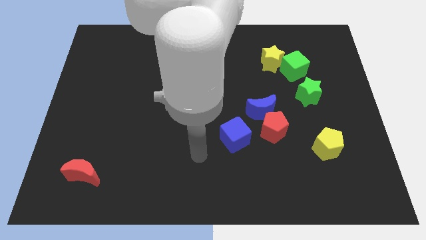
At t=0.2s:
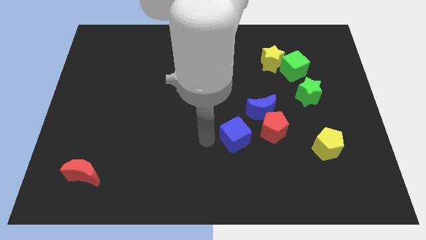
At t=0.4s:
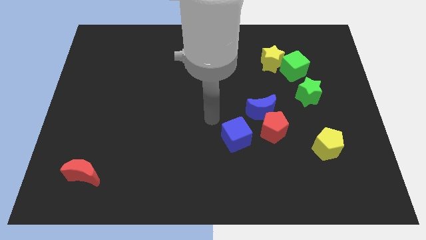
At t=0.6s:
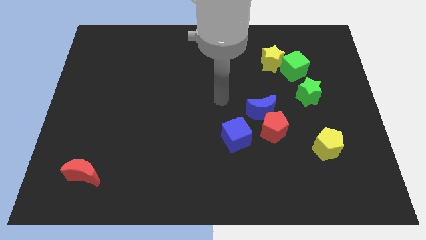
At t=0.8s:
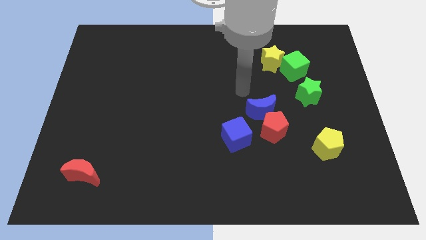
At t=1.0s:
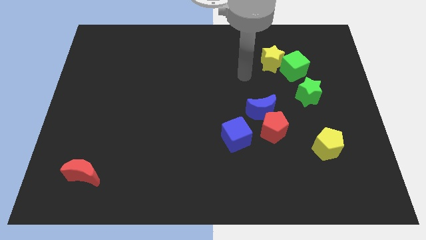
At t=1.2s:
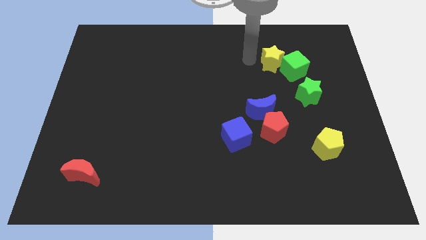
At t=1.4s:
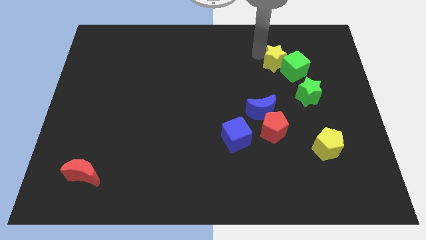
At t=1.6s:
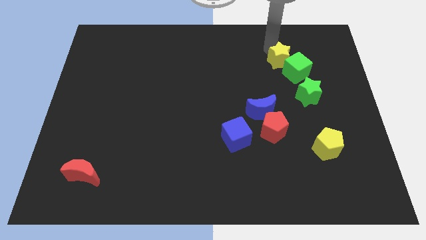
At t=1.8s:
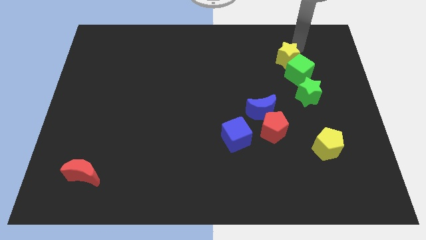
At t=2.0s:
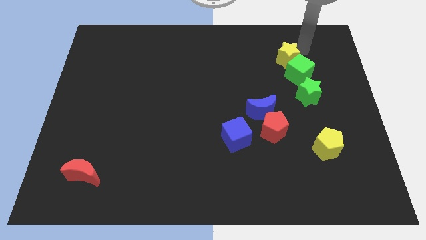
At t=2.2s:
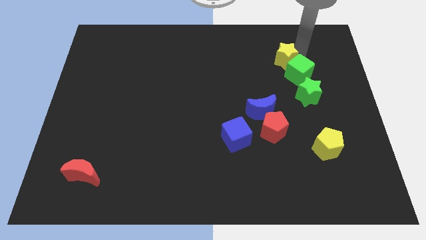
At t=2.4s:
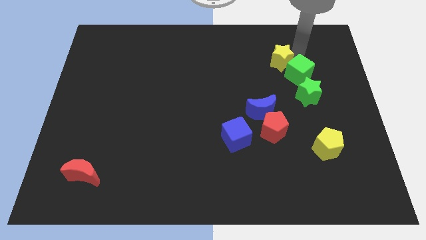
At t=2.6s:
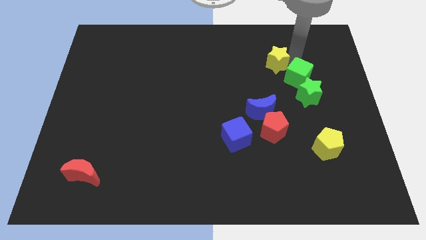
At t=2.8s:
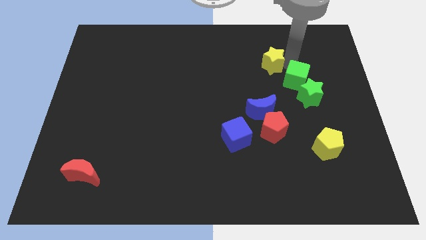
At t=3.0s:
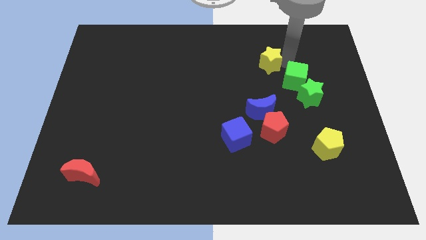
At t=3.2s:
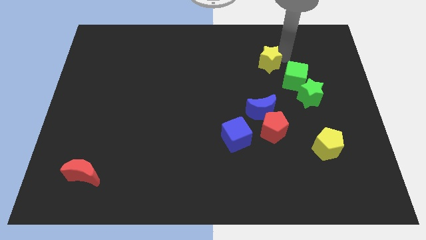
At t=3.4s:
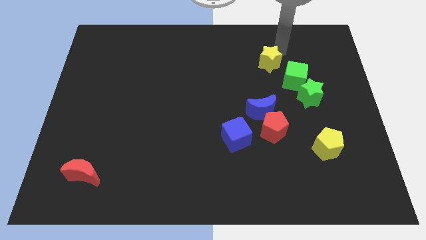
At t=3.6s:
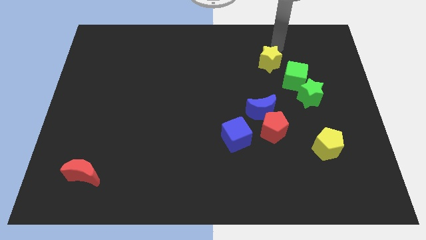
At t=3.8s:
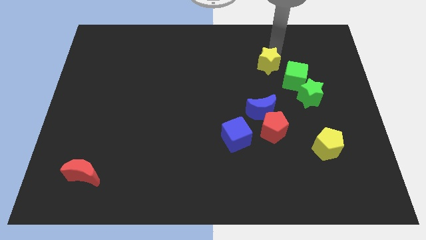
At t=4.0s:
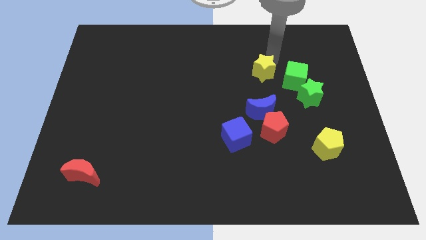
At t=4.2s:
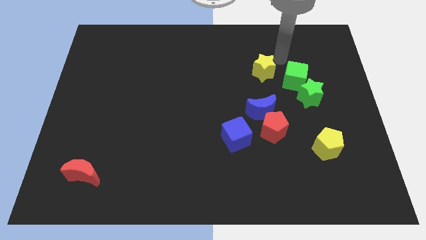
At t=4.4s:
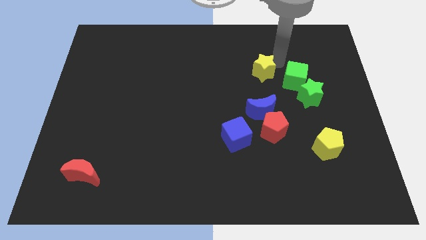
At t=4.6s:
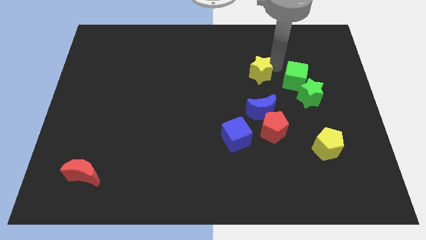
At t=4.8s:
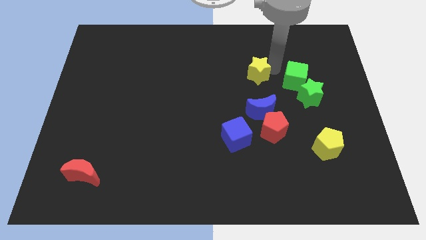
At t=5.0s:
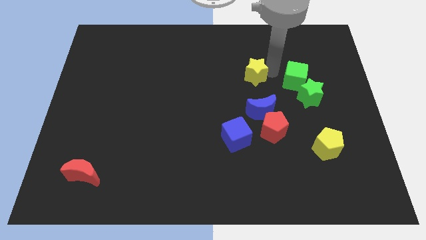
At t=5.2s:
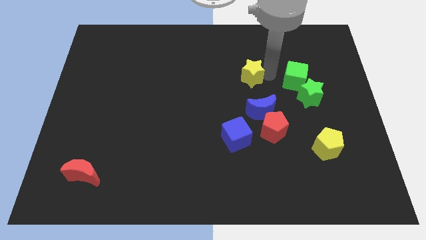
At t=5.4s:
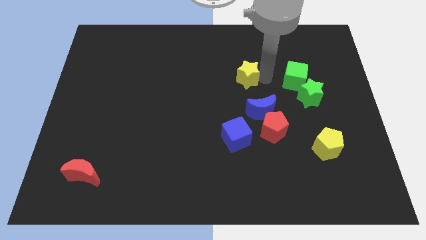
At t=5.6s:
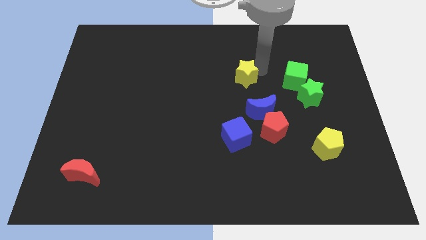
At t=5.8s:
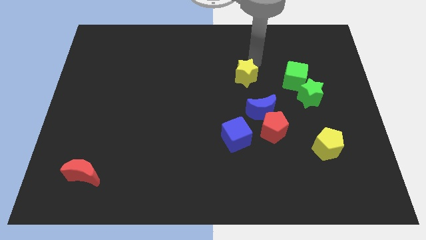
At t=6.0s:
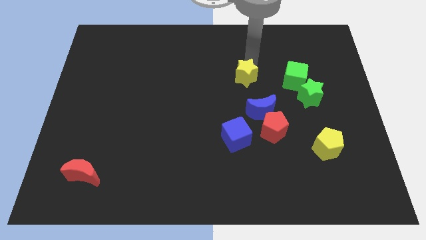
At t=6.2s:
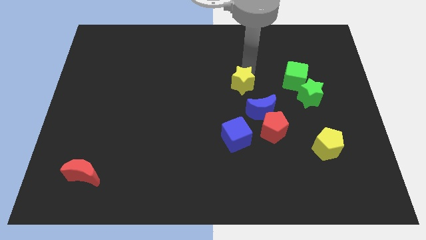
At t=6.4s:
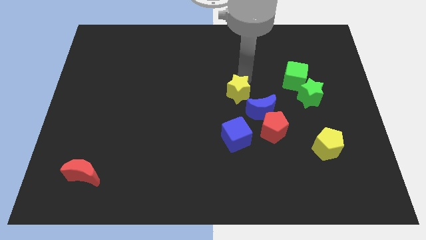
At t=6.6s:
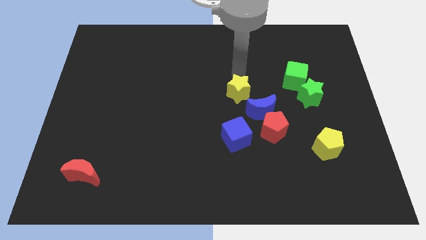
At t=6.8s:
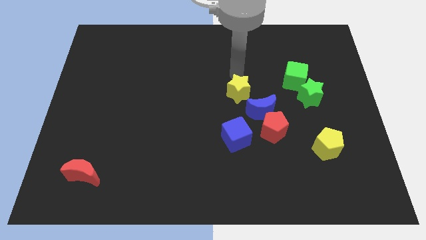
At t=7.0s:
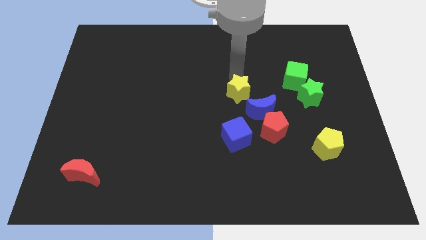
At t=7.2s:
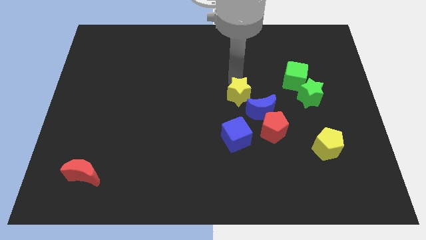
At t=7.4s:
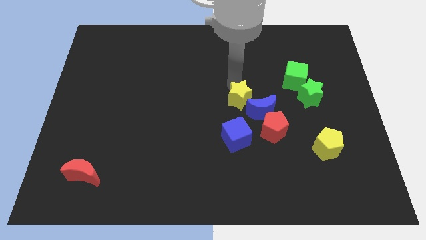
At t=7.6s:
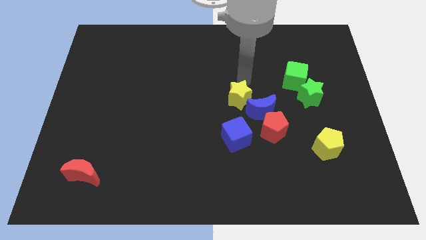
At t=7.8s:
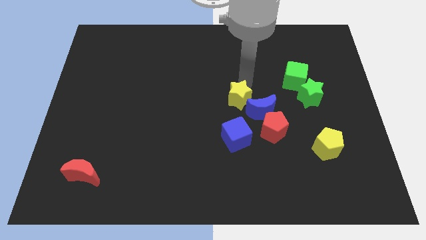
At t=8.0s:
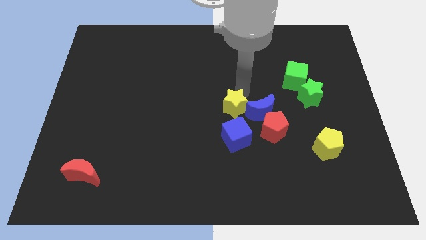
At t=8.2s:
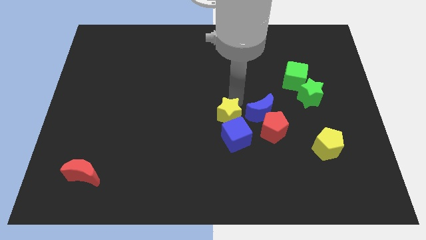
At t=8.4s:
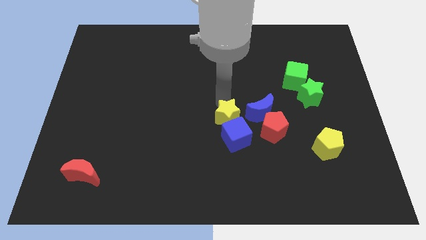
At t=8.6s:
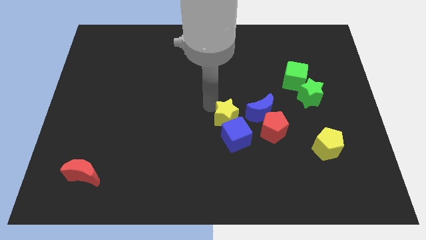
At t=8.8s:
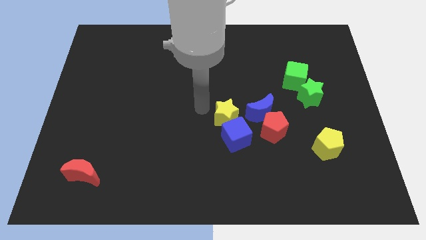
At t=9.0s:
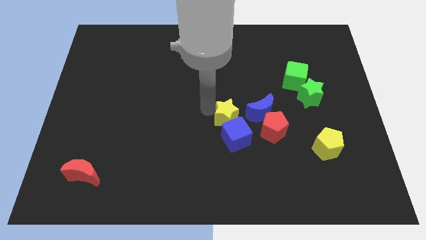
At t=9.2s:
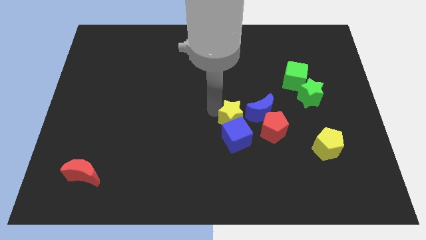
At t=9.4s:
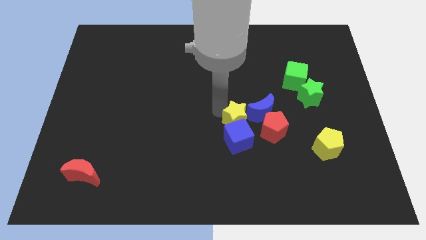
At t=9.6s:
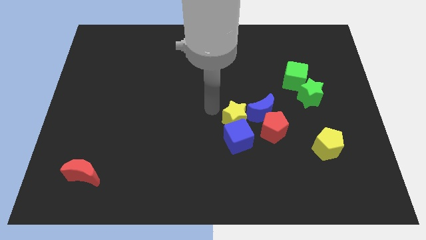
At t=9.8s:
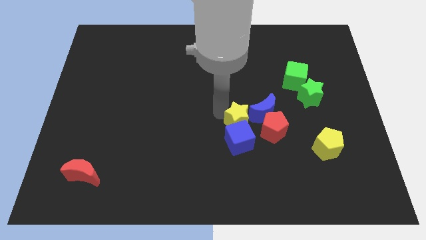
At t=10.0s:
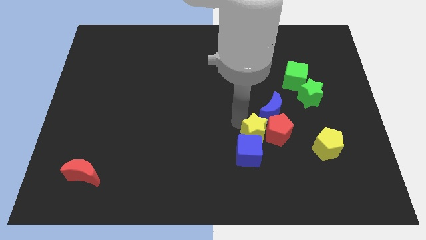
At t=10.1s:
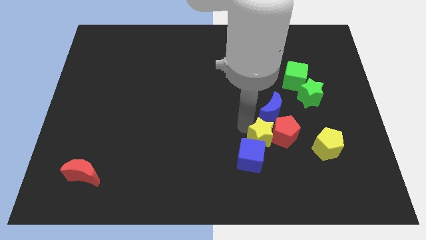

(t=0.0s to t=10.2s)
move the yellow star to the left of the yellow pentagon

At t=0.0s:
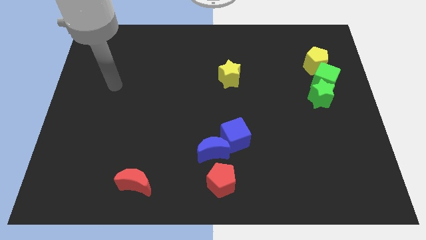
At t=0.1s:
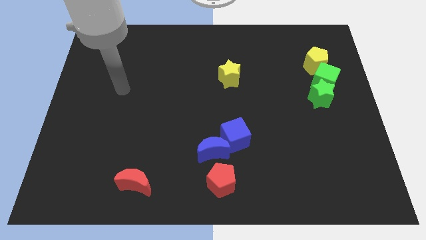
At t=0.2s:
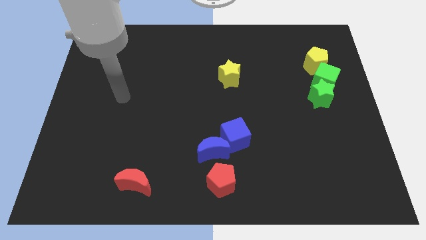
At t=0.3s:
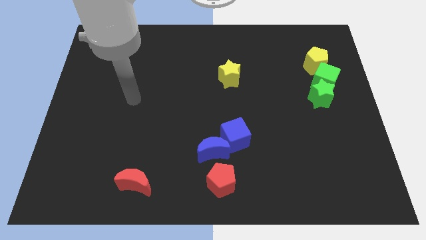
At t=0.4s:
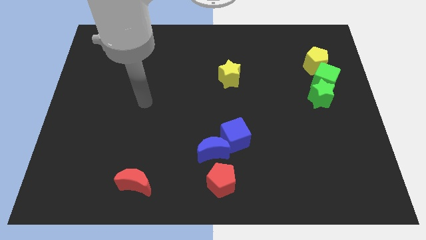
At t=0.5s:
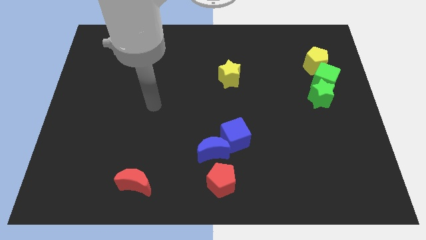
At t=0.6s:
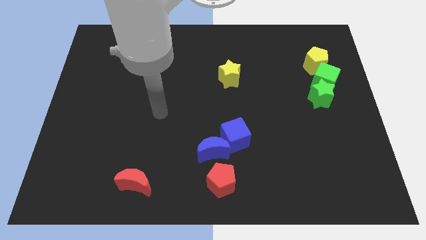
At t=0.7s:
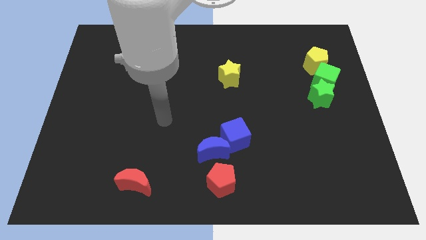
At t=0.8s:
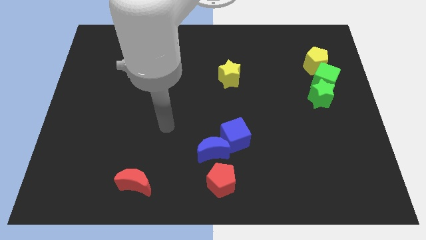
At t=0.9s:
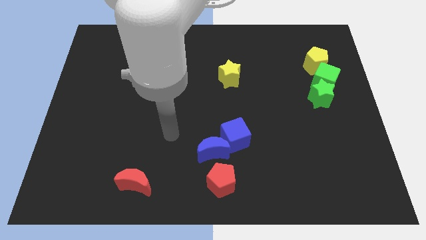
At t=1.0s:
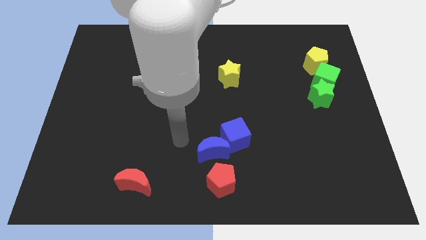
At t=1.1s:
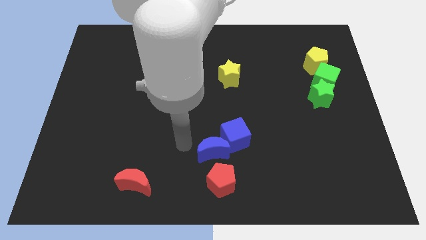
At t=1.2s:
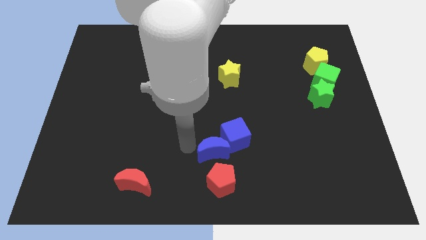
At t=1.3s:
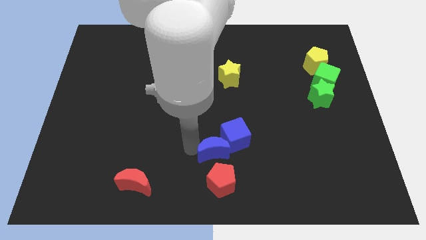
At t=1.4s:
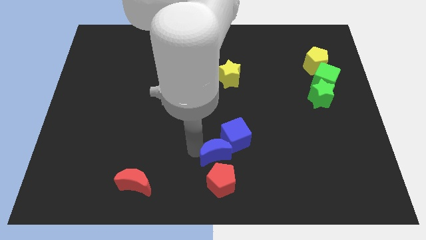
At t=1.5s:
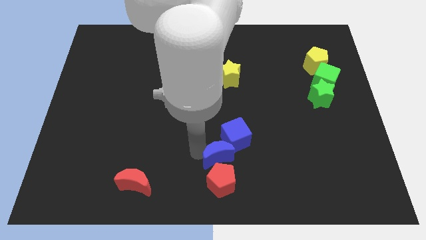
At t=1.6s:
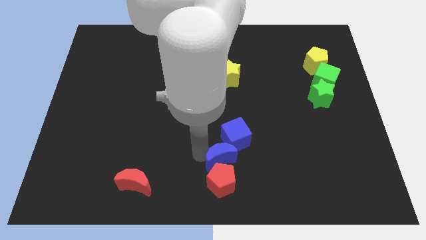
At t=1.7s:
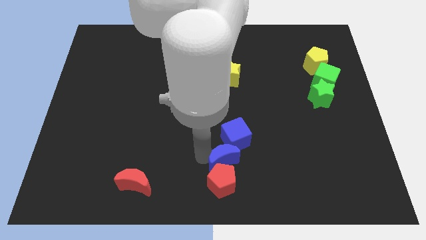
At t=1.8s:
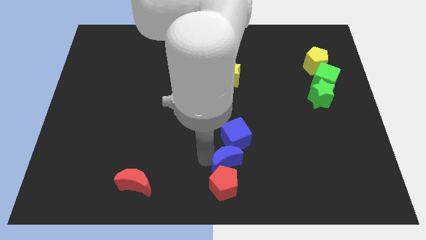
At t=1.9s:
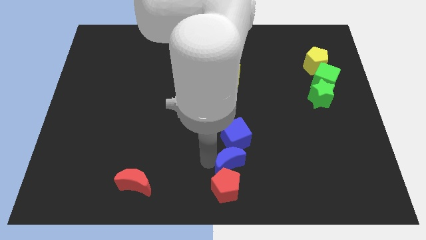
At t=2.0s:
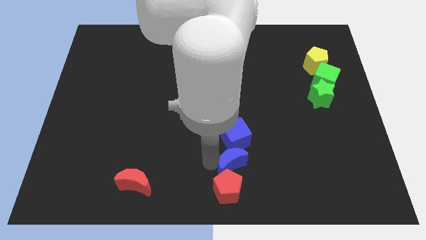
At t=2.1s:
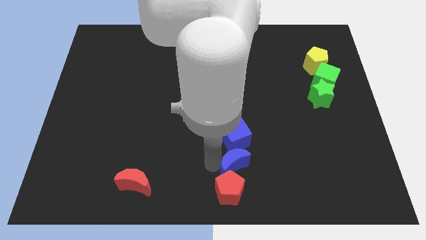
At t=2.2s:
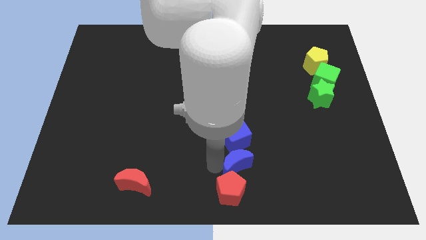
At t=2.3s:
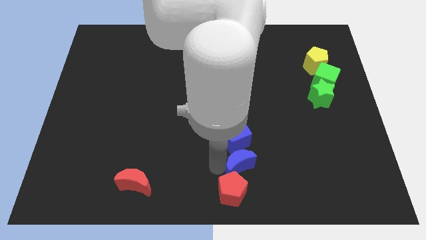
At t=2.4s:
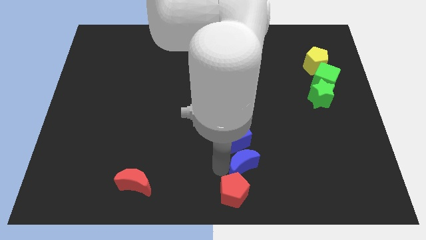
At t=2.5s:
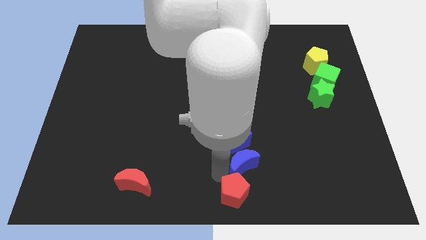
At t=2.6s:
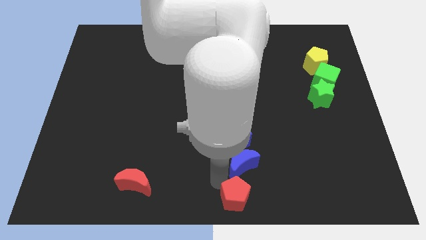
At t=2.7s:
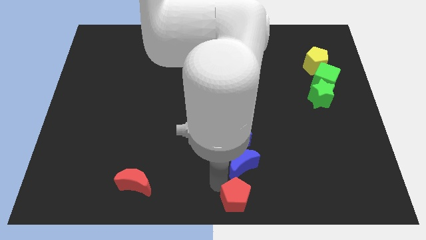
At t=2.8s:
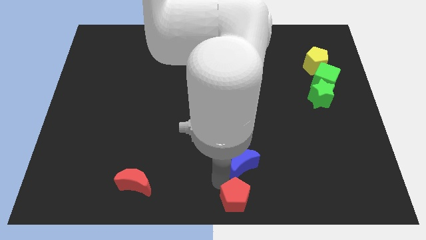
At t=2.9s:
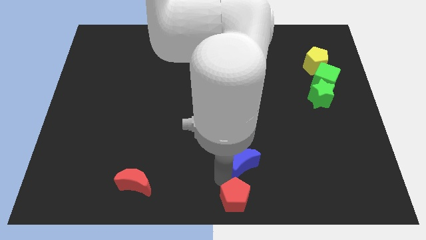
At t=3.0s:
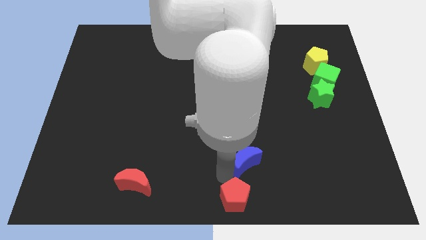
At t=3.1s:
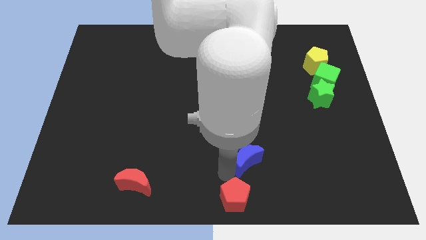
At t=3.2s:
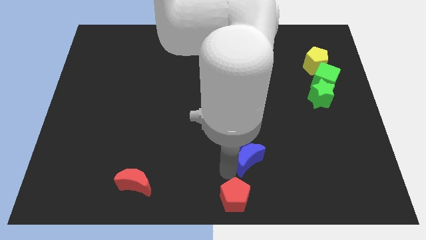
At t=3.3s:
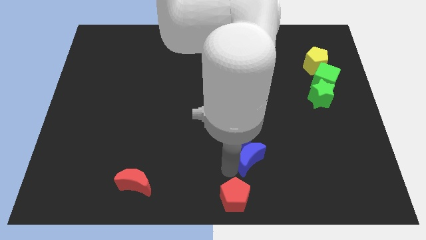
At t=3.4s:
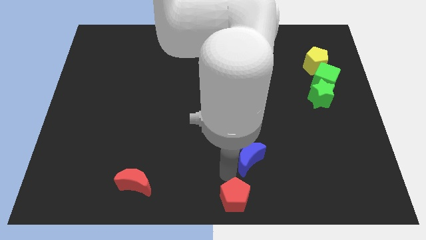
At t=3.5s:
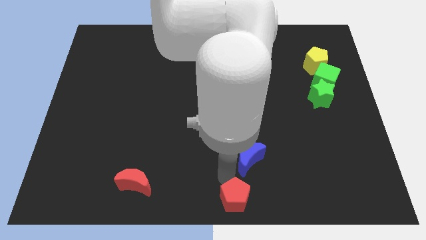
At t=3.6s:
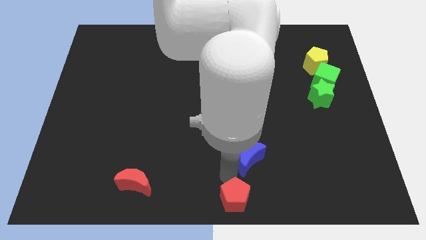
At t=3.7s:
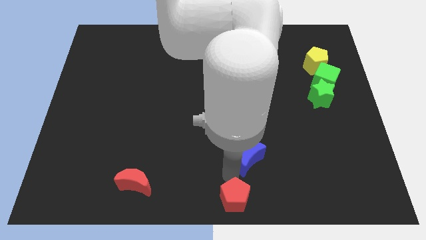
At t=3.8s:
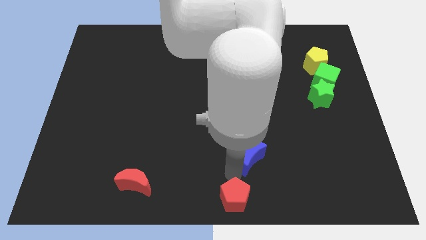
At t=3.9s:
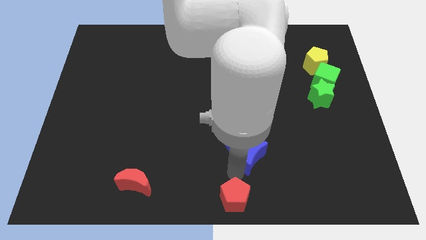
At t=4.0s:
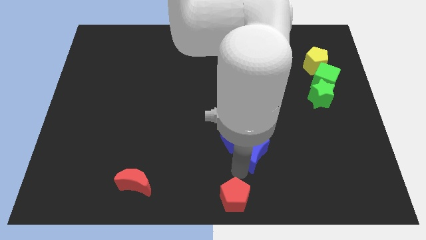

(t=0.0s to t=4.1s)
put the blue moon right of the blue cube
